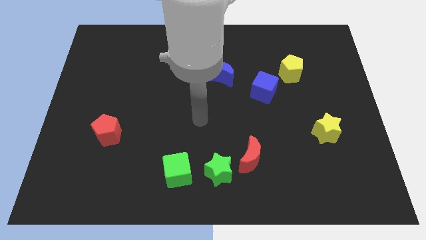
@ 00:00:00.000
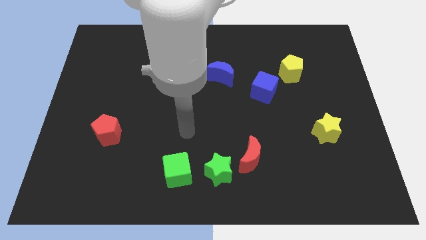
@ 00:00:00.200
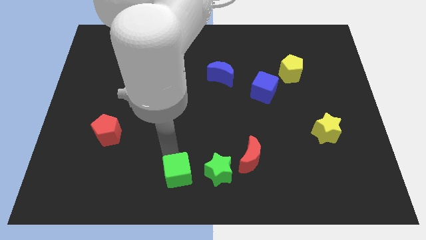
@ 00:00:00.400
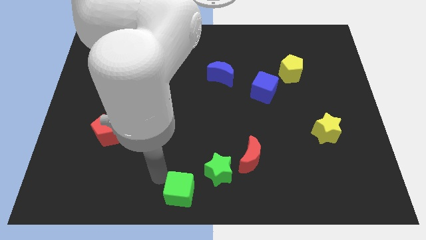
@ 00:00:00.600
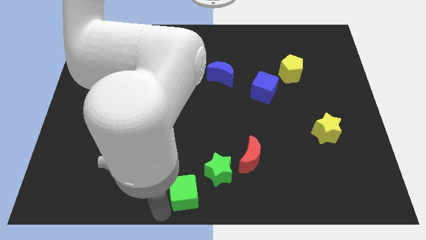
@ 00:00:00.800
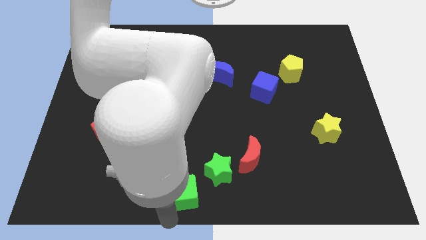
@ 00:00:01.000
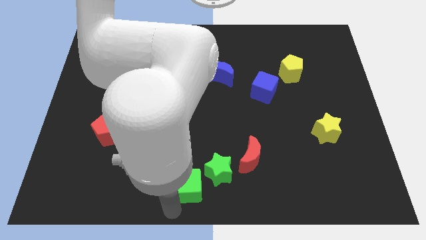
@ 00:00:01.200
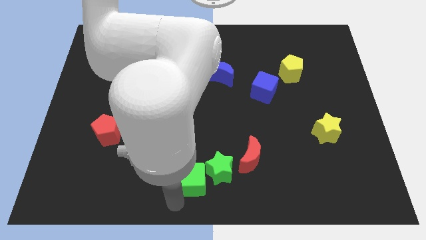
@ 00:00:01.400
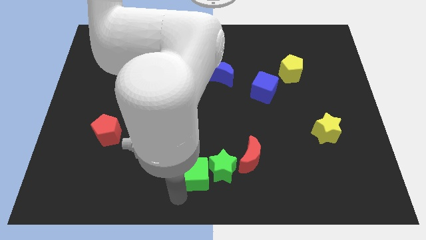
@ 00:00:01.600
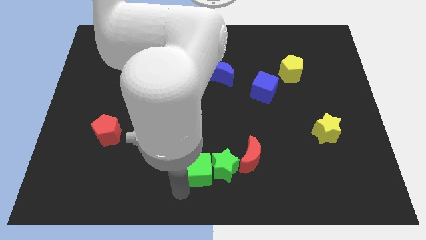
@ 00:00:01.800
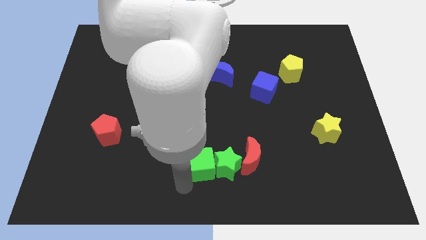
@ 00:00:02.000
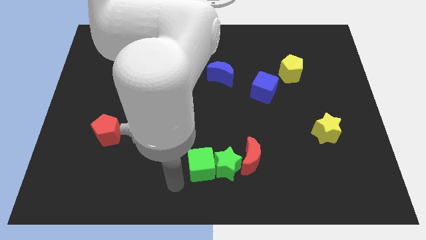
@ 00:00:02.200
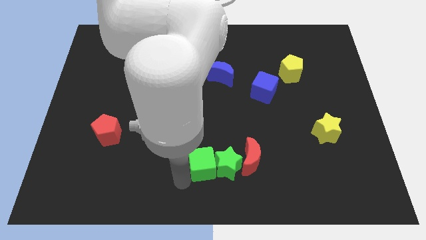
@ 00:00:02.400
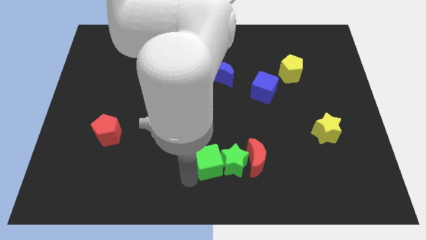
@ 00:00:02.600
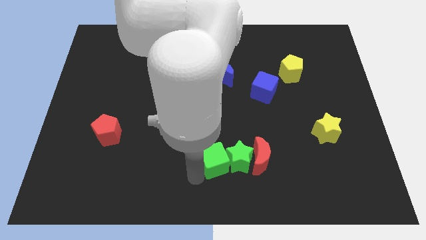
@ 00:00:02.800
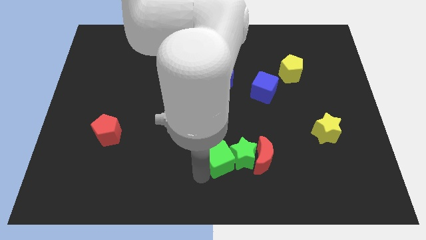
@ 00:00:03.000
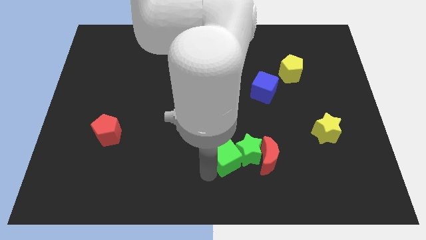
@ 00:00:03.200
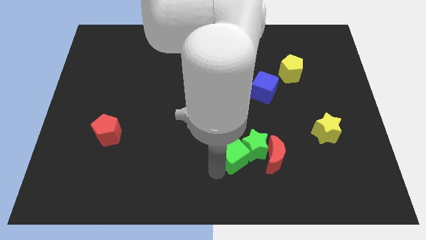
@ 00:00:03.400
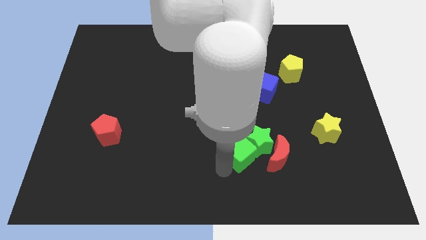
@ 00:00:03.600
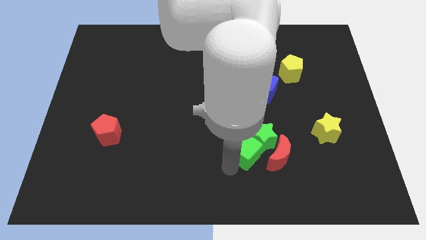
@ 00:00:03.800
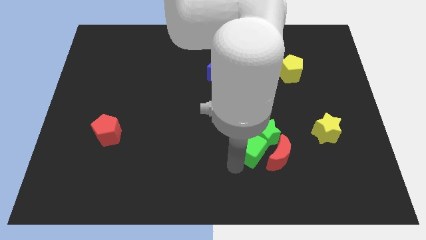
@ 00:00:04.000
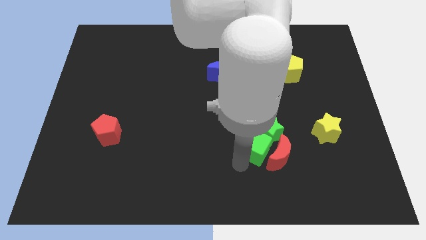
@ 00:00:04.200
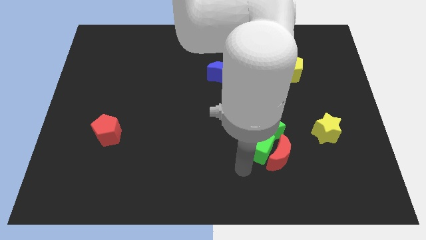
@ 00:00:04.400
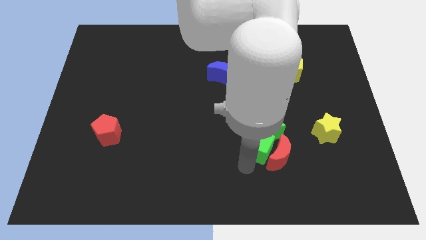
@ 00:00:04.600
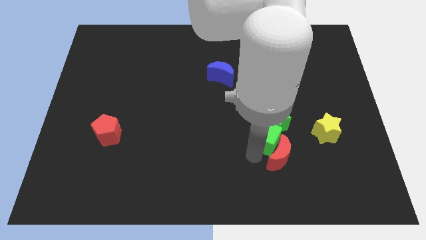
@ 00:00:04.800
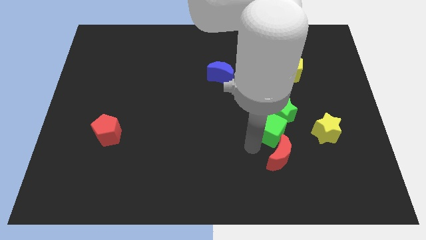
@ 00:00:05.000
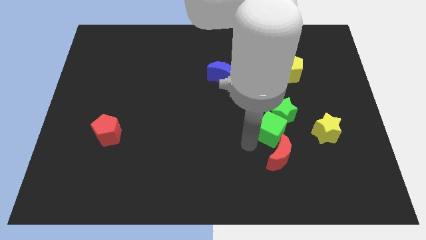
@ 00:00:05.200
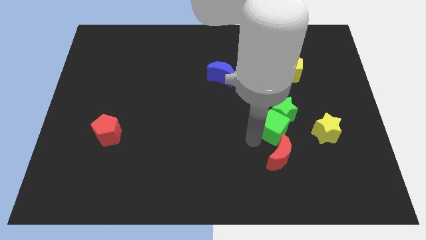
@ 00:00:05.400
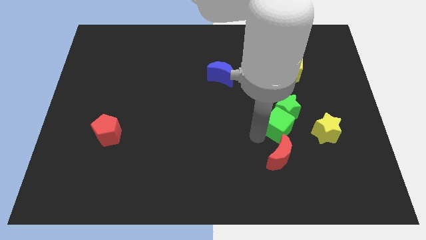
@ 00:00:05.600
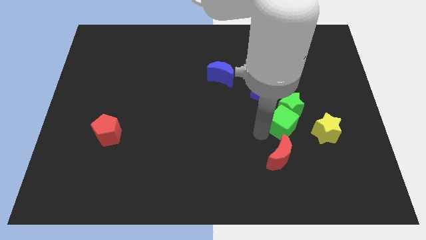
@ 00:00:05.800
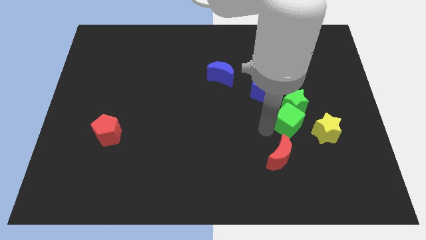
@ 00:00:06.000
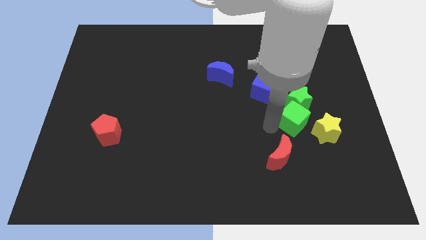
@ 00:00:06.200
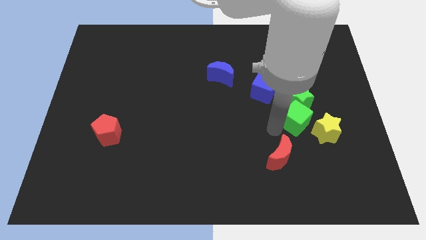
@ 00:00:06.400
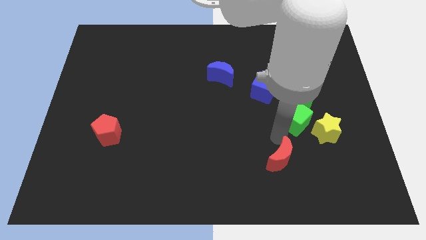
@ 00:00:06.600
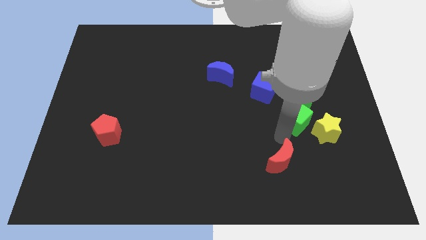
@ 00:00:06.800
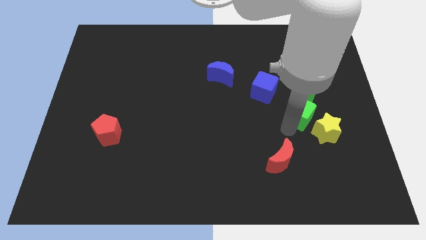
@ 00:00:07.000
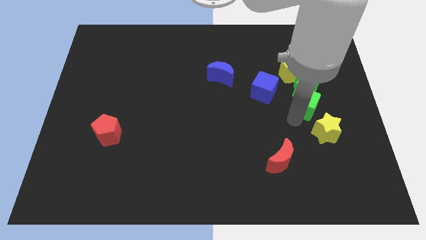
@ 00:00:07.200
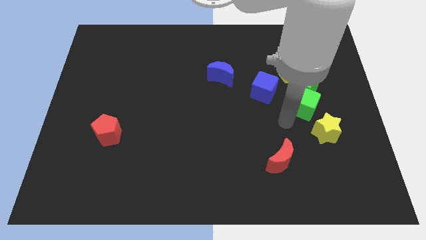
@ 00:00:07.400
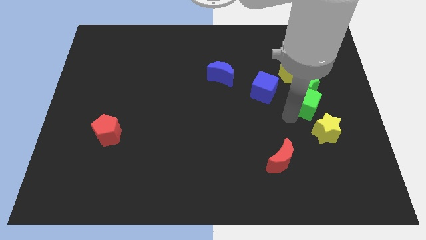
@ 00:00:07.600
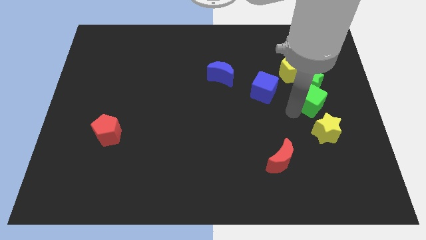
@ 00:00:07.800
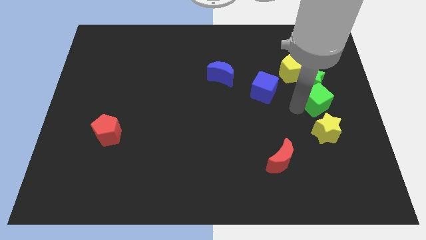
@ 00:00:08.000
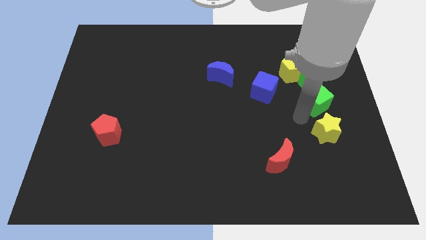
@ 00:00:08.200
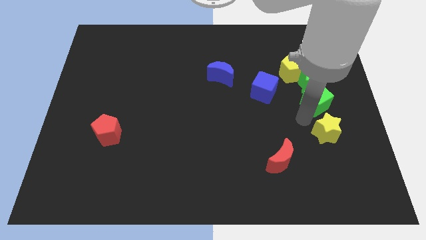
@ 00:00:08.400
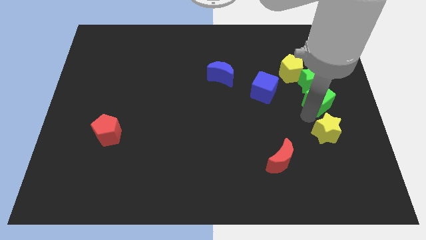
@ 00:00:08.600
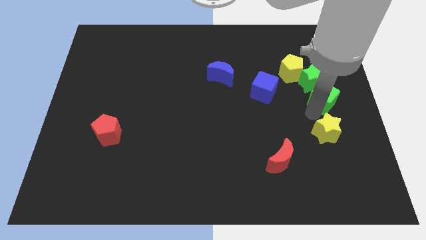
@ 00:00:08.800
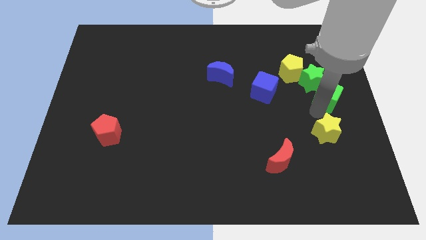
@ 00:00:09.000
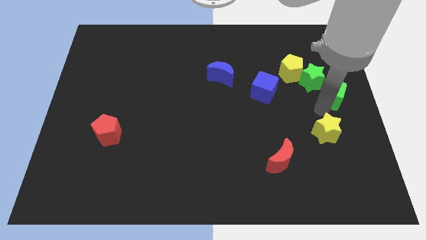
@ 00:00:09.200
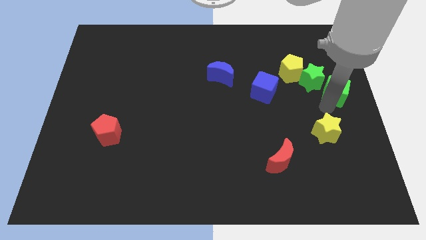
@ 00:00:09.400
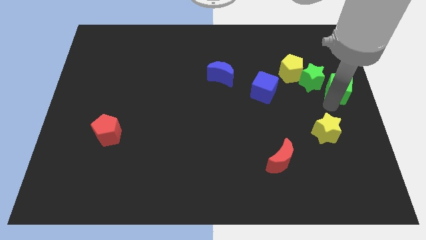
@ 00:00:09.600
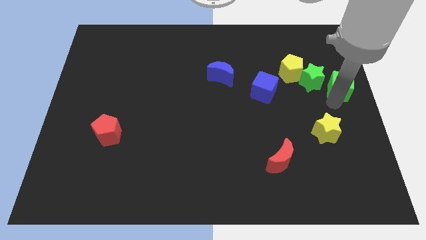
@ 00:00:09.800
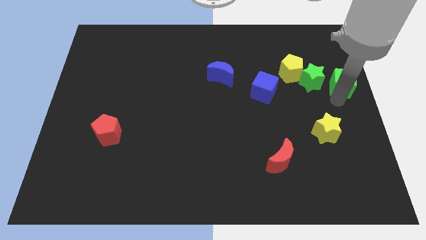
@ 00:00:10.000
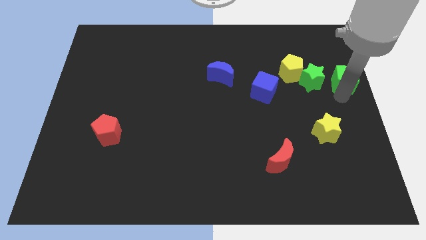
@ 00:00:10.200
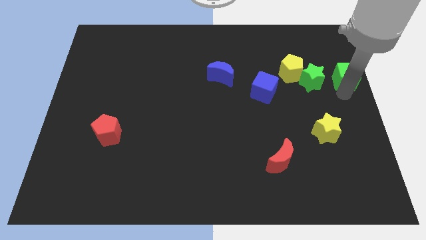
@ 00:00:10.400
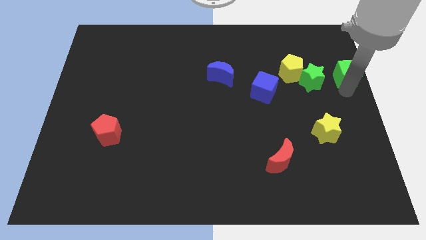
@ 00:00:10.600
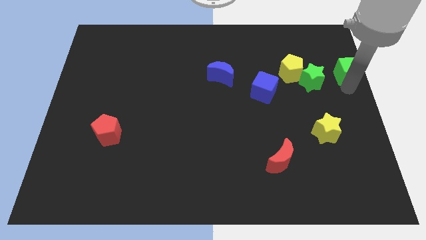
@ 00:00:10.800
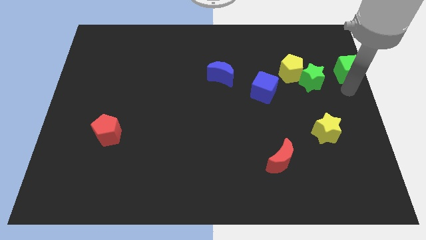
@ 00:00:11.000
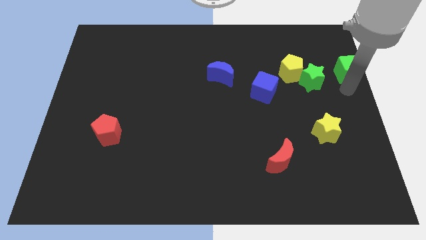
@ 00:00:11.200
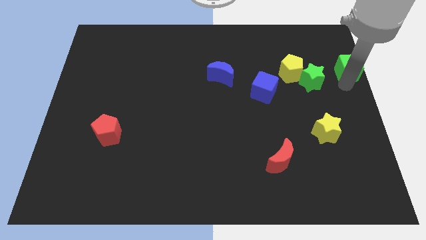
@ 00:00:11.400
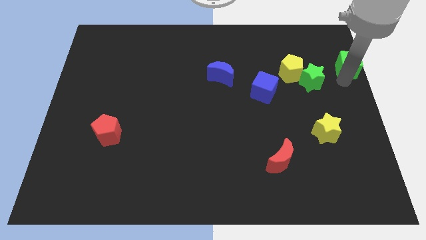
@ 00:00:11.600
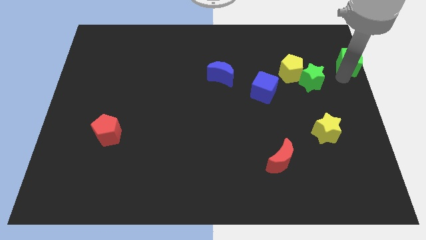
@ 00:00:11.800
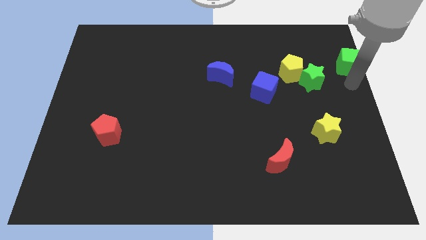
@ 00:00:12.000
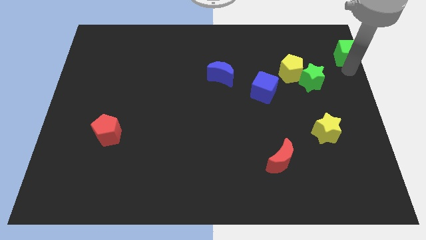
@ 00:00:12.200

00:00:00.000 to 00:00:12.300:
push the green cube to the top right corner
